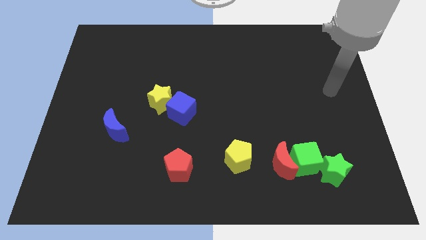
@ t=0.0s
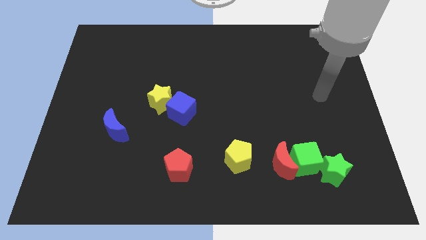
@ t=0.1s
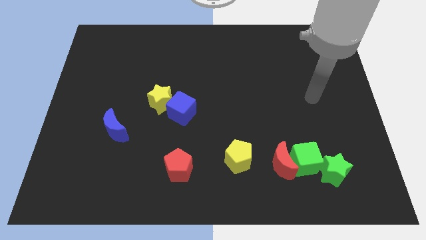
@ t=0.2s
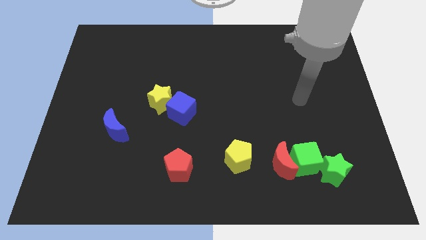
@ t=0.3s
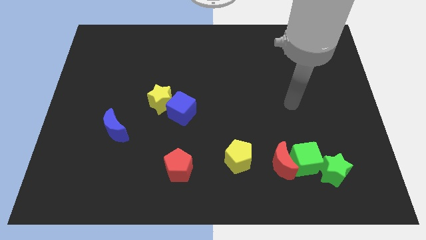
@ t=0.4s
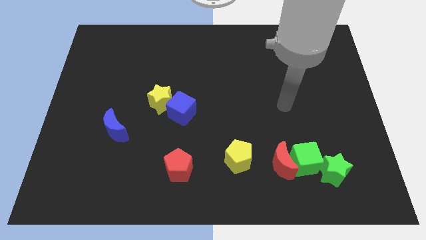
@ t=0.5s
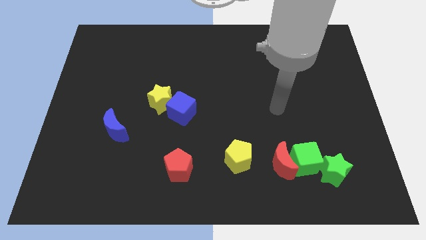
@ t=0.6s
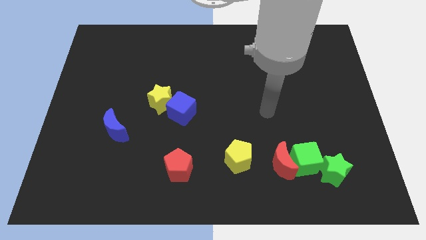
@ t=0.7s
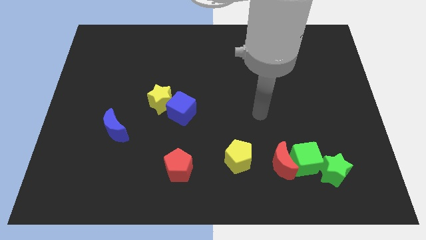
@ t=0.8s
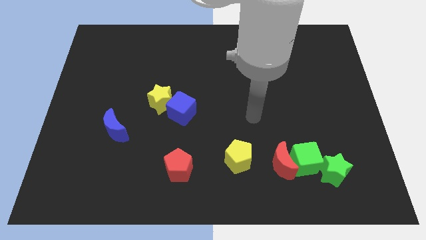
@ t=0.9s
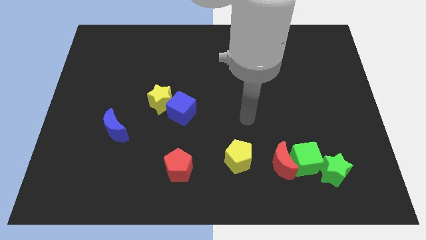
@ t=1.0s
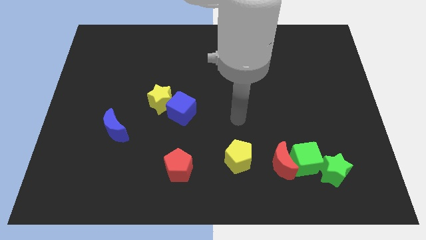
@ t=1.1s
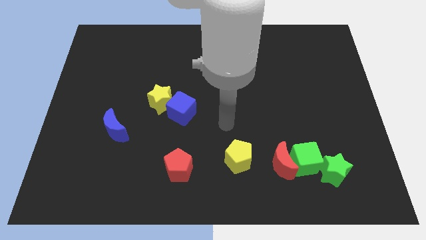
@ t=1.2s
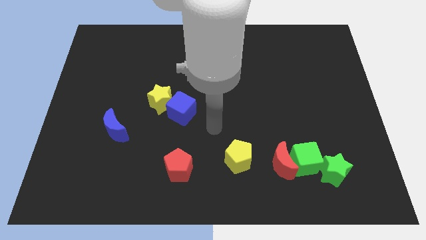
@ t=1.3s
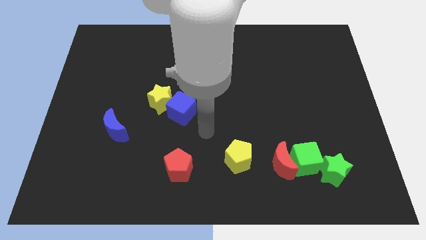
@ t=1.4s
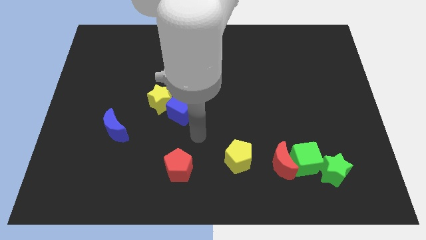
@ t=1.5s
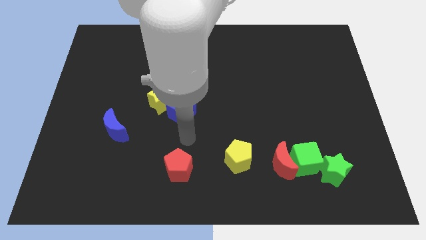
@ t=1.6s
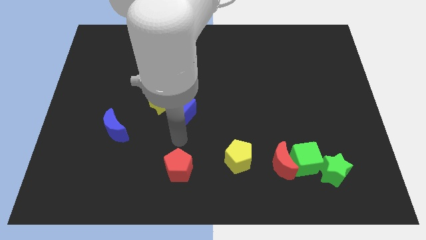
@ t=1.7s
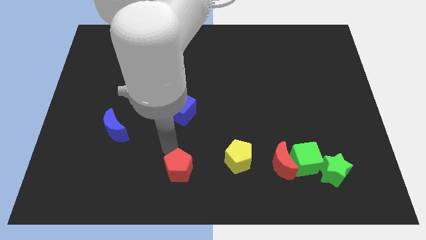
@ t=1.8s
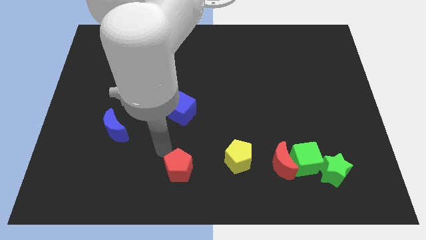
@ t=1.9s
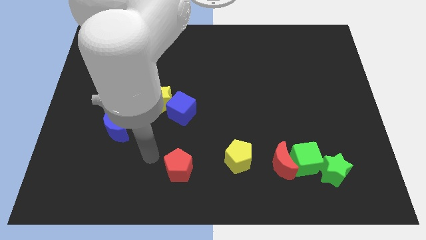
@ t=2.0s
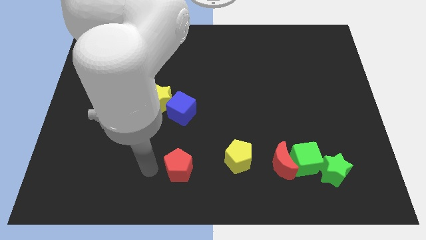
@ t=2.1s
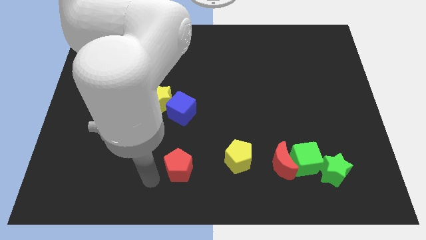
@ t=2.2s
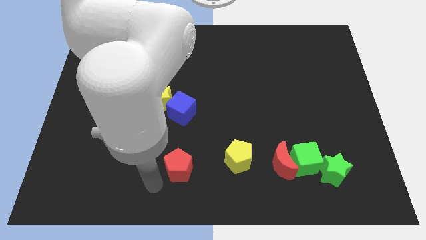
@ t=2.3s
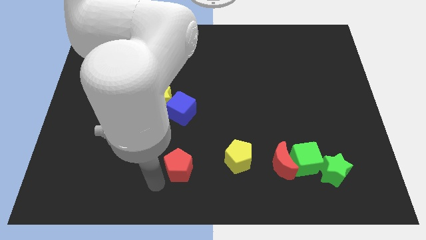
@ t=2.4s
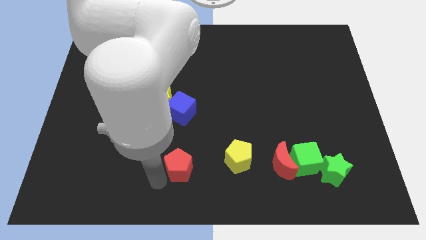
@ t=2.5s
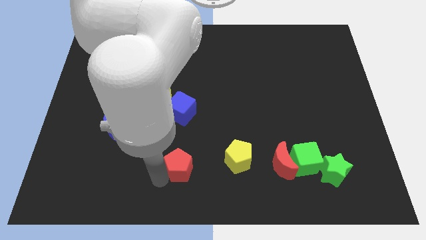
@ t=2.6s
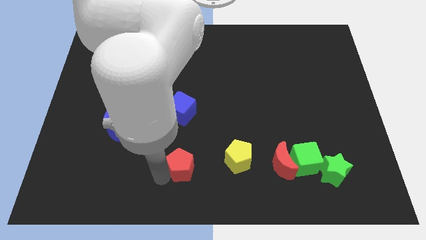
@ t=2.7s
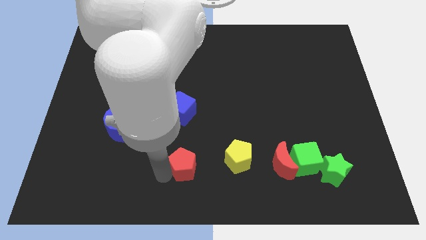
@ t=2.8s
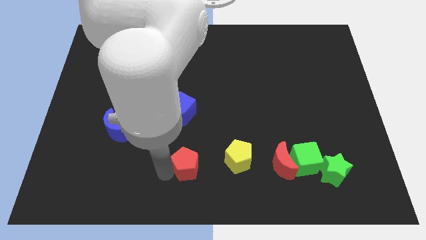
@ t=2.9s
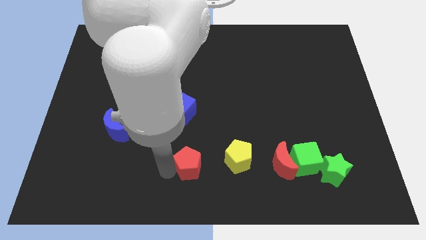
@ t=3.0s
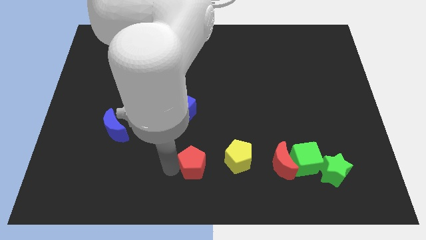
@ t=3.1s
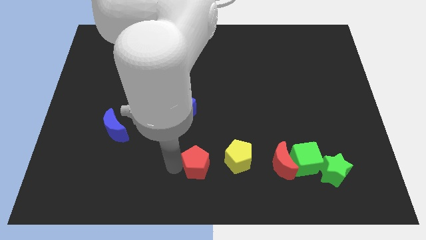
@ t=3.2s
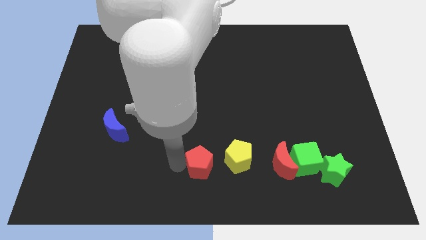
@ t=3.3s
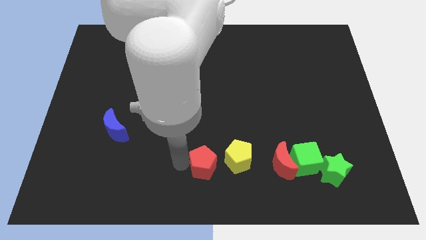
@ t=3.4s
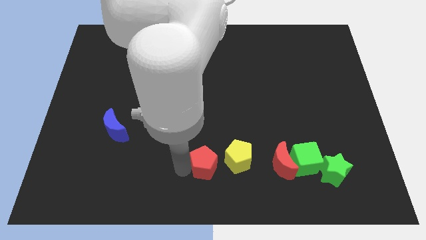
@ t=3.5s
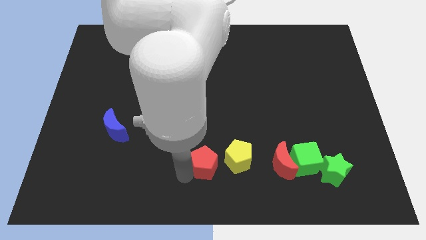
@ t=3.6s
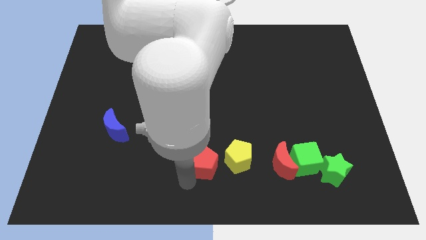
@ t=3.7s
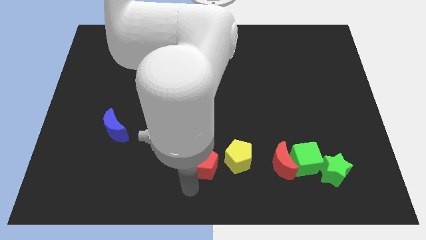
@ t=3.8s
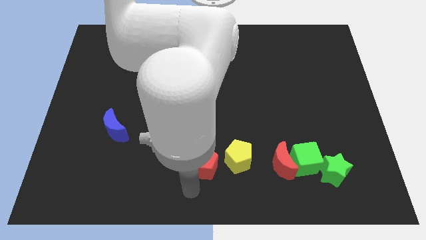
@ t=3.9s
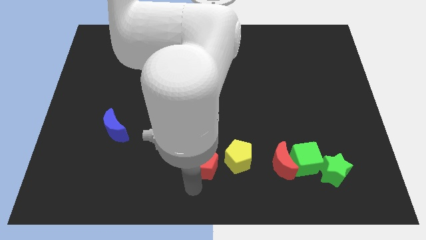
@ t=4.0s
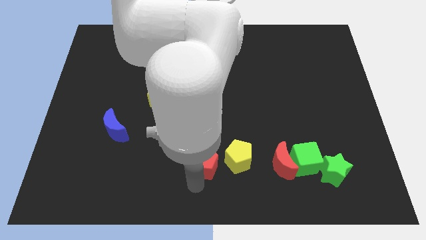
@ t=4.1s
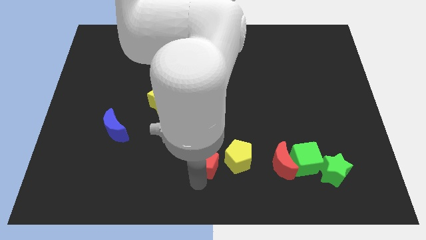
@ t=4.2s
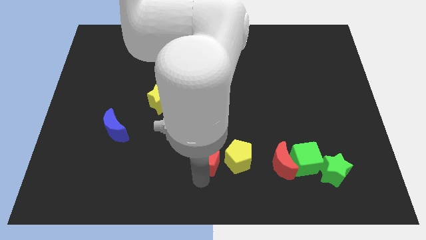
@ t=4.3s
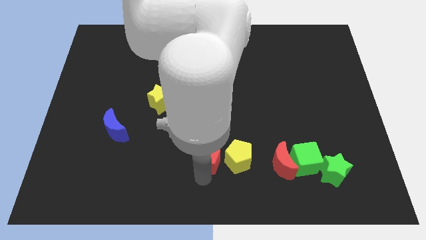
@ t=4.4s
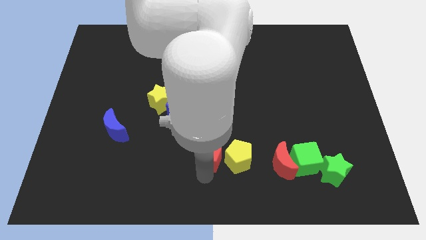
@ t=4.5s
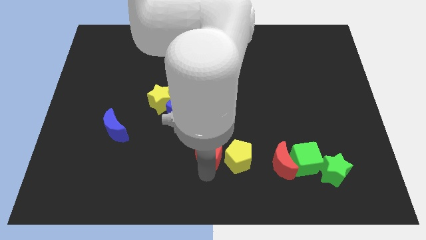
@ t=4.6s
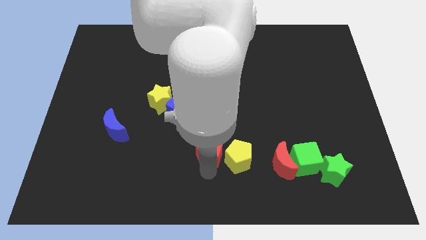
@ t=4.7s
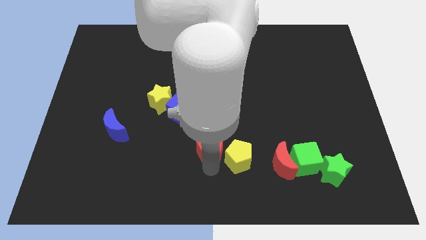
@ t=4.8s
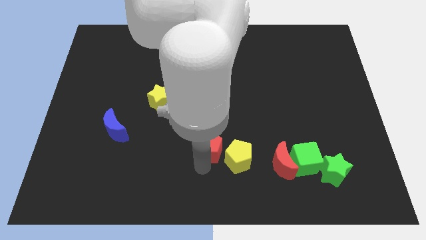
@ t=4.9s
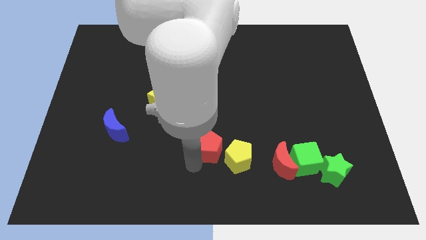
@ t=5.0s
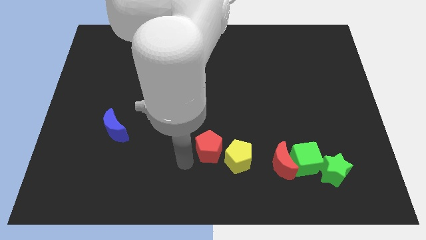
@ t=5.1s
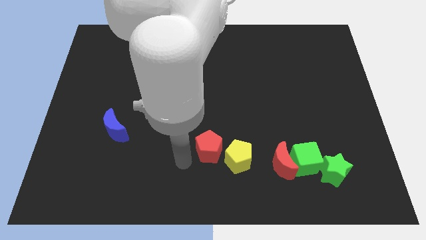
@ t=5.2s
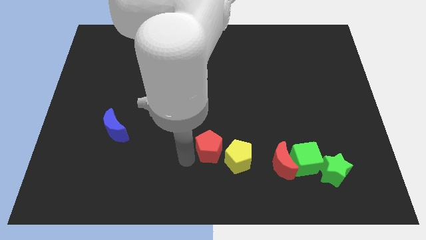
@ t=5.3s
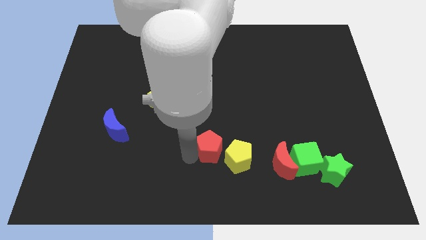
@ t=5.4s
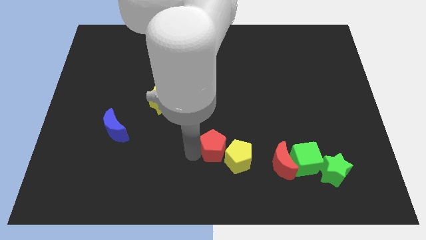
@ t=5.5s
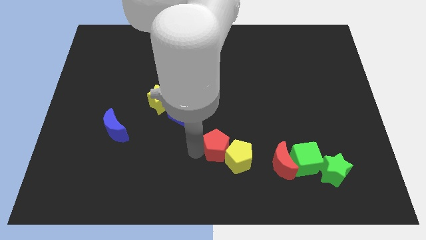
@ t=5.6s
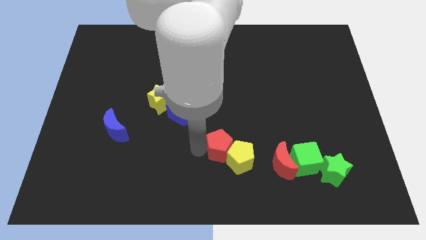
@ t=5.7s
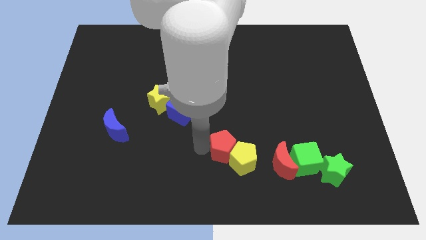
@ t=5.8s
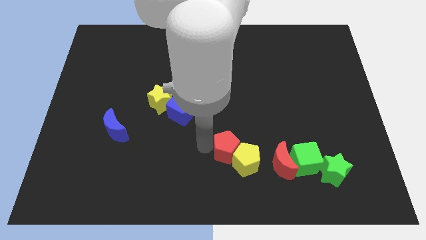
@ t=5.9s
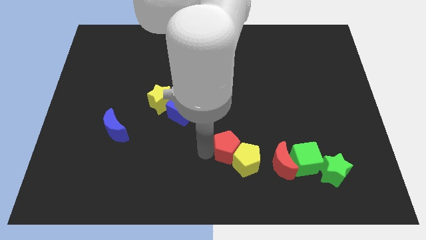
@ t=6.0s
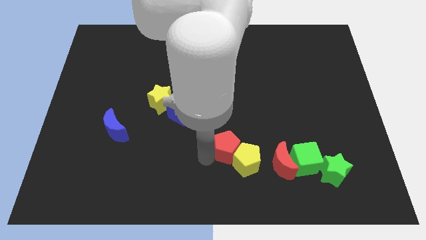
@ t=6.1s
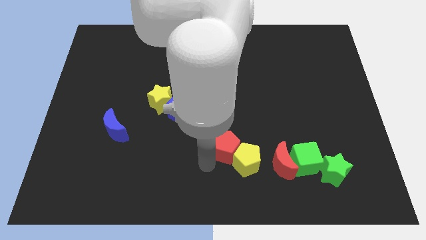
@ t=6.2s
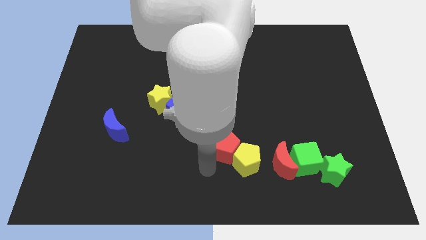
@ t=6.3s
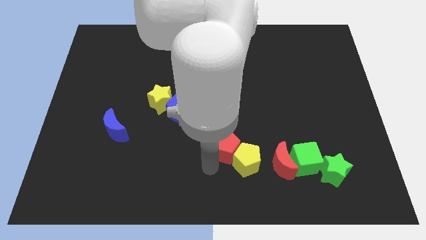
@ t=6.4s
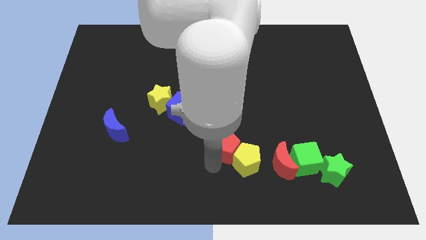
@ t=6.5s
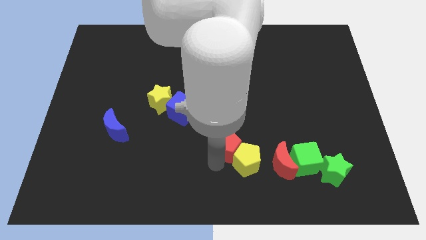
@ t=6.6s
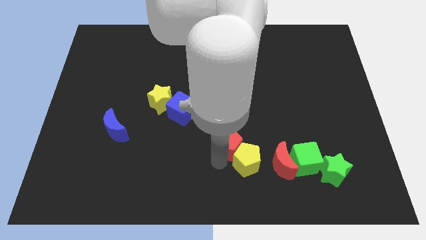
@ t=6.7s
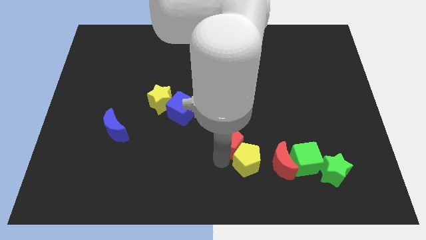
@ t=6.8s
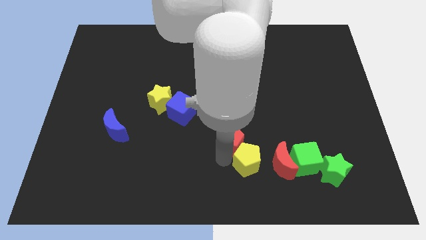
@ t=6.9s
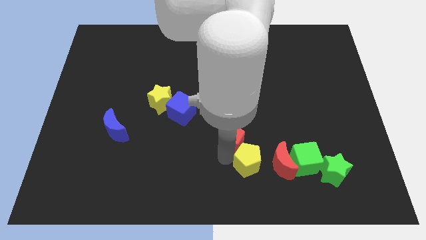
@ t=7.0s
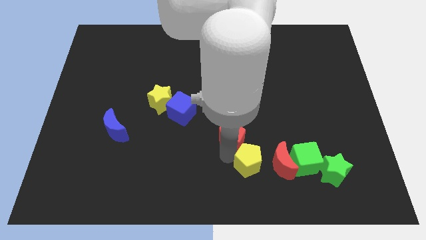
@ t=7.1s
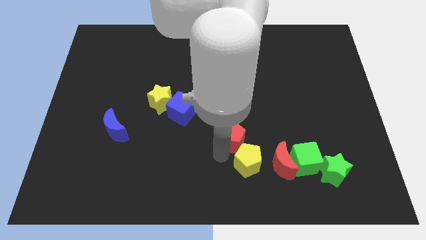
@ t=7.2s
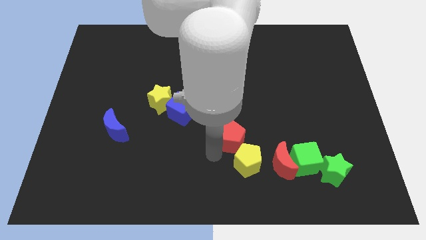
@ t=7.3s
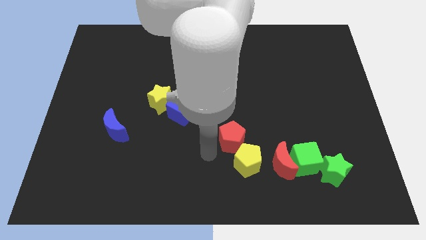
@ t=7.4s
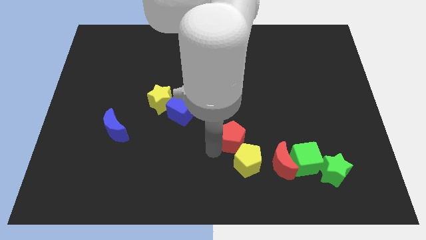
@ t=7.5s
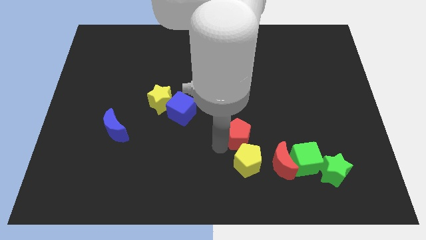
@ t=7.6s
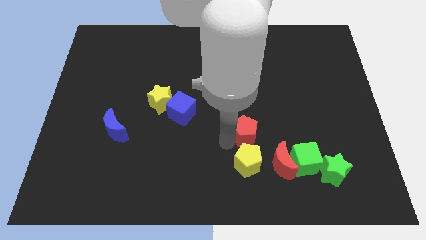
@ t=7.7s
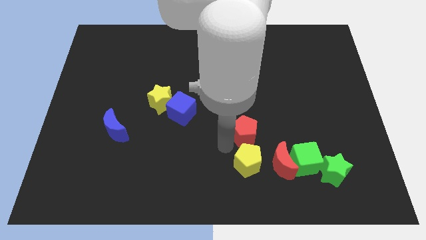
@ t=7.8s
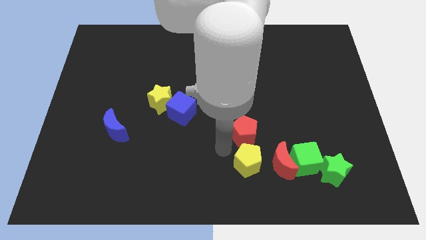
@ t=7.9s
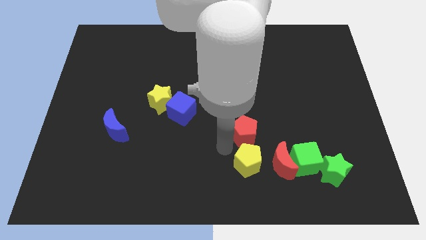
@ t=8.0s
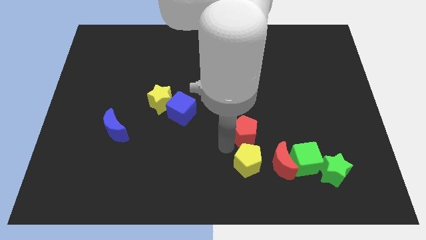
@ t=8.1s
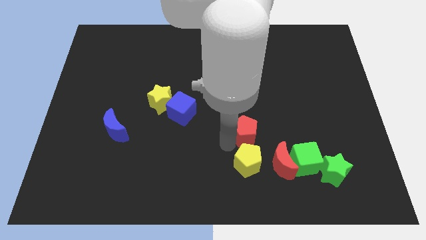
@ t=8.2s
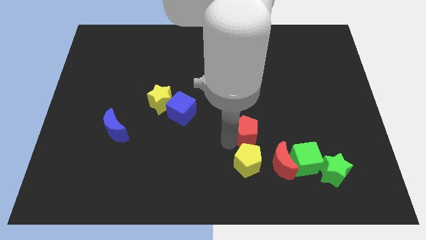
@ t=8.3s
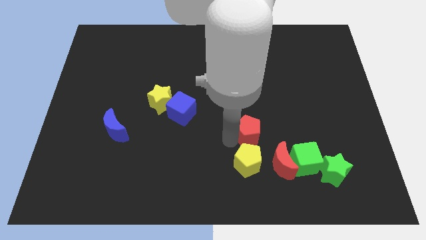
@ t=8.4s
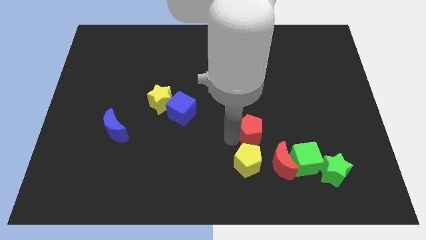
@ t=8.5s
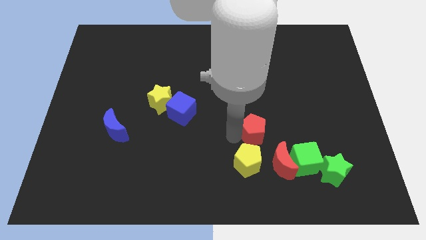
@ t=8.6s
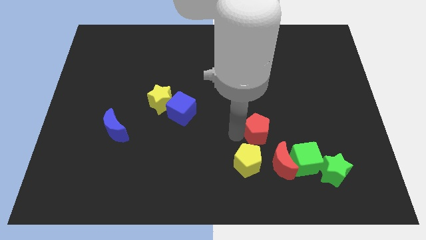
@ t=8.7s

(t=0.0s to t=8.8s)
slide the red pentagon above the red moon
